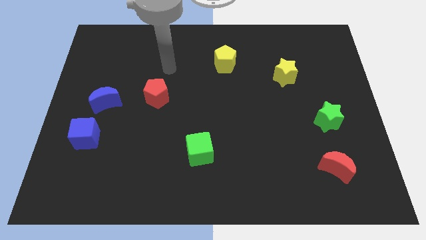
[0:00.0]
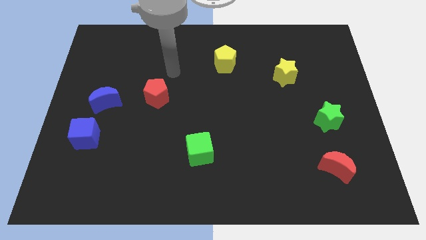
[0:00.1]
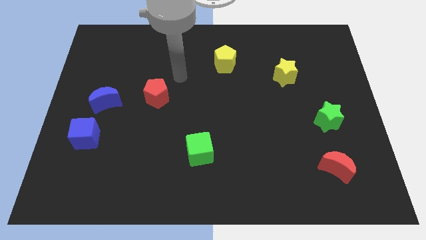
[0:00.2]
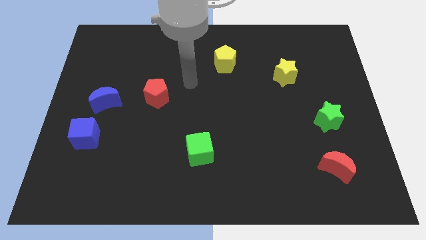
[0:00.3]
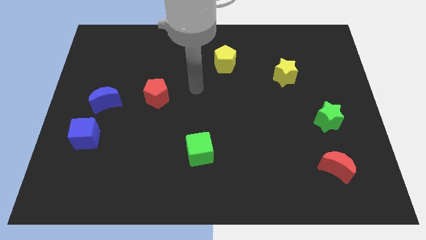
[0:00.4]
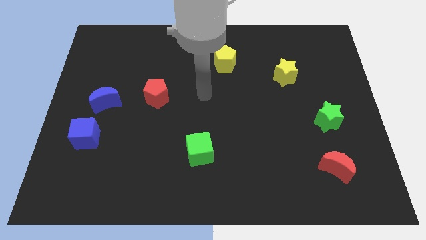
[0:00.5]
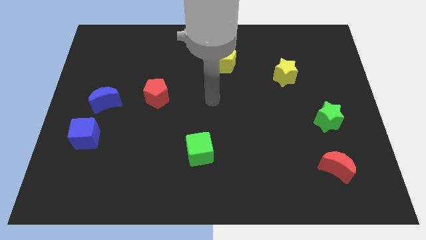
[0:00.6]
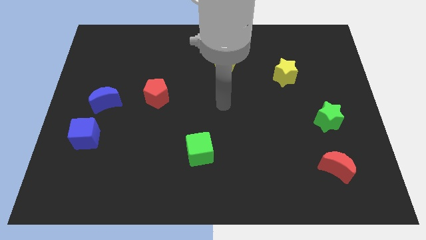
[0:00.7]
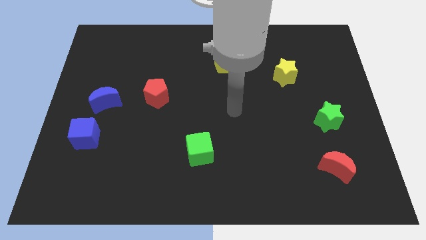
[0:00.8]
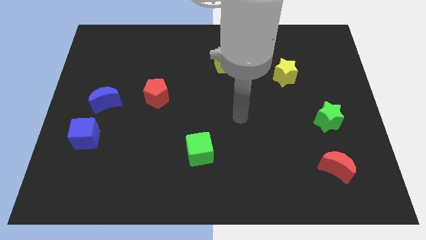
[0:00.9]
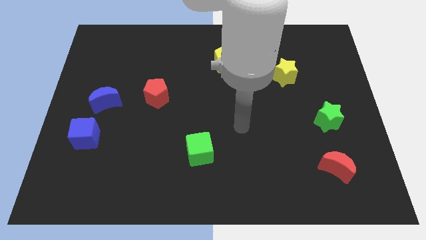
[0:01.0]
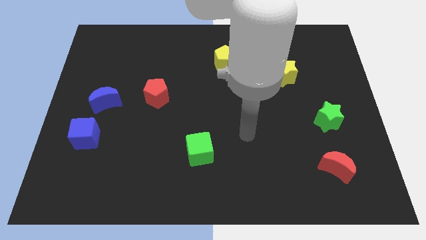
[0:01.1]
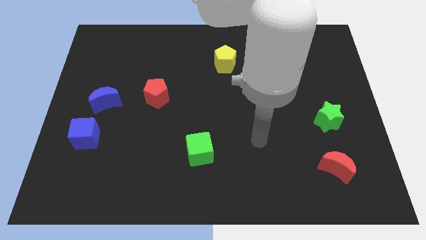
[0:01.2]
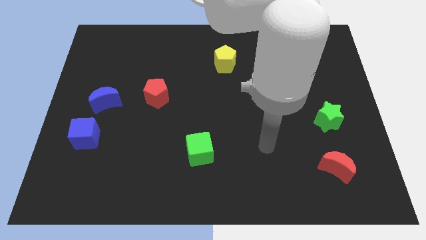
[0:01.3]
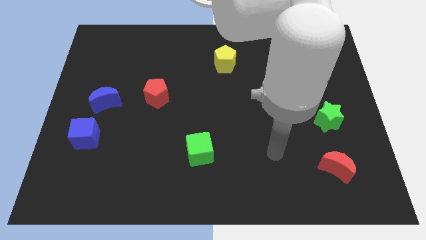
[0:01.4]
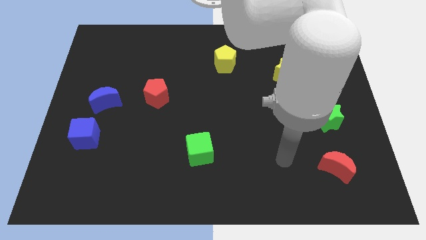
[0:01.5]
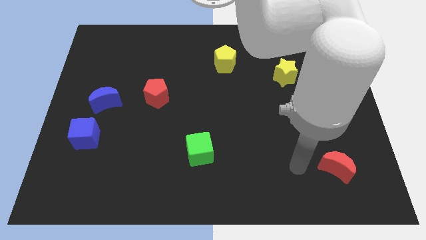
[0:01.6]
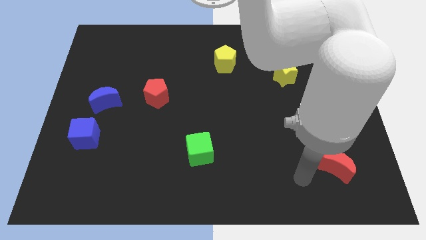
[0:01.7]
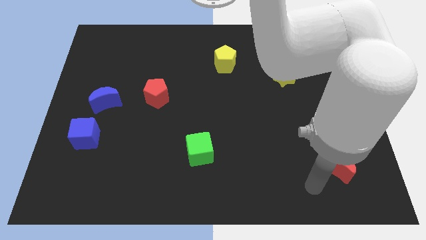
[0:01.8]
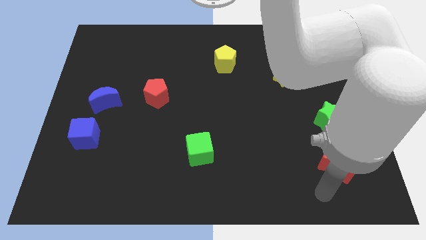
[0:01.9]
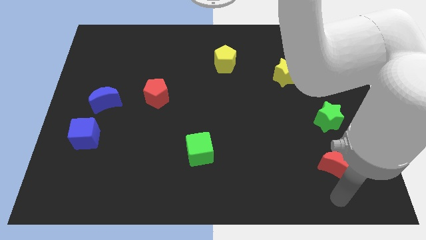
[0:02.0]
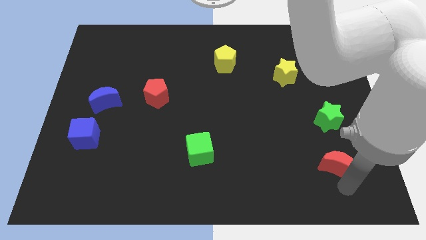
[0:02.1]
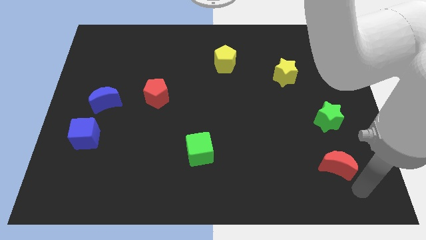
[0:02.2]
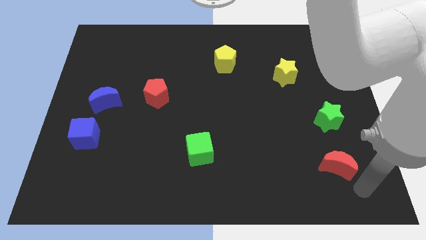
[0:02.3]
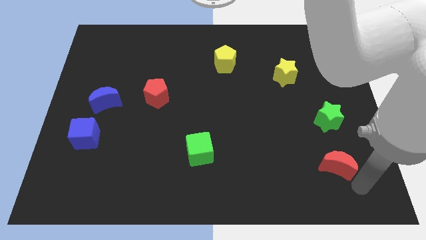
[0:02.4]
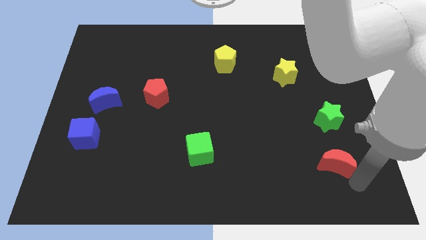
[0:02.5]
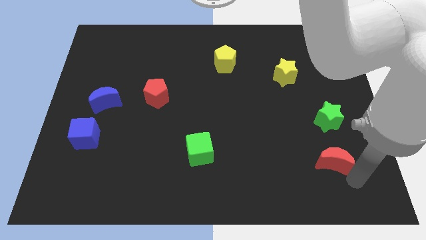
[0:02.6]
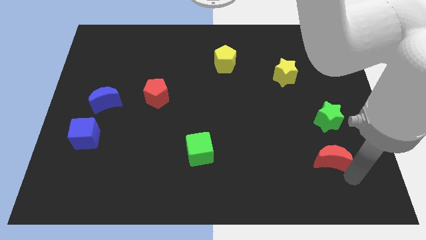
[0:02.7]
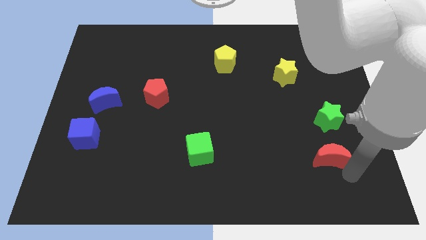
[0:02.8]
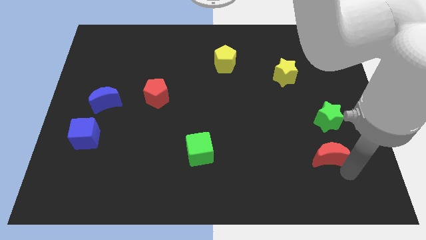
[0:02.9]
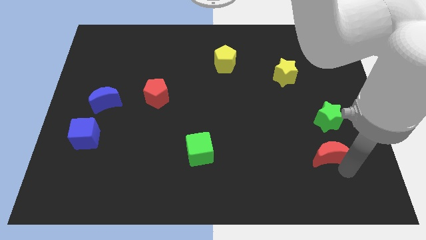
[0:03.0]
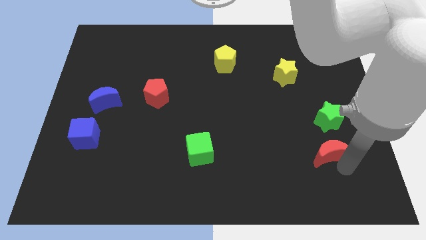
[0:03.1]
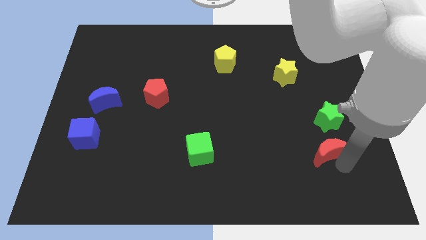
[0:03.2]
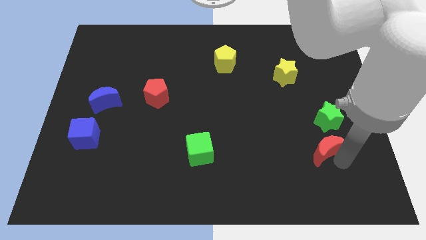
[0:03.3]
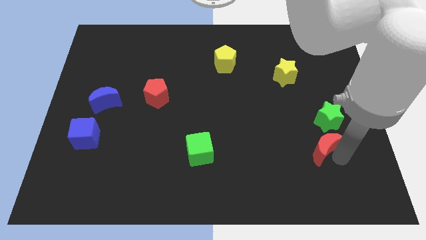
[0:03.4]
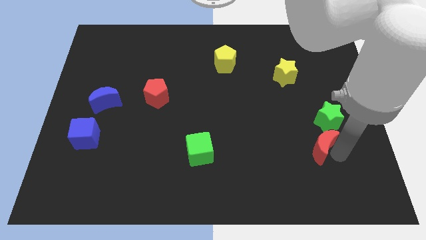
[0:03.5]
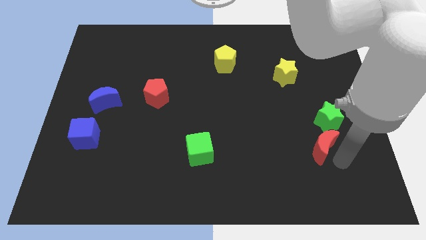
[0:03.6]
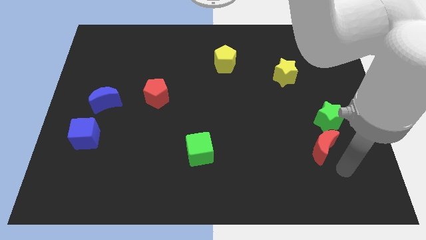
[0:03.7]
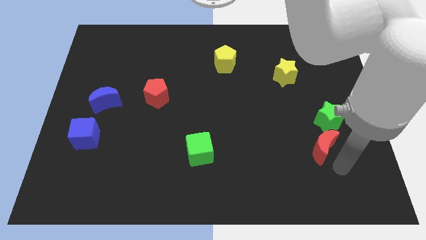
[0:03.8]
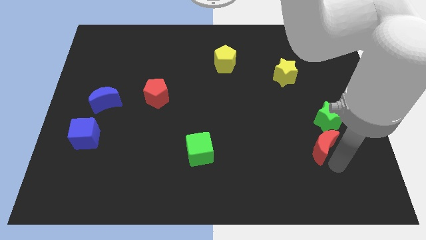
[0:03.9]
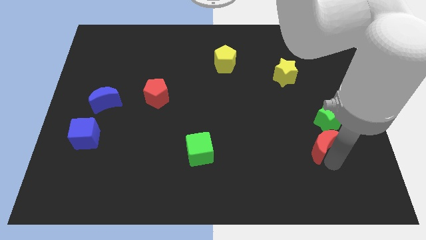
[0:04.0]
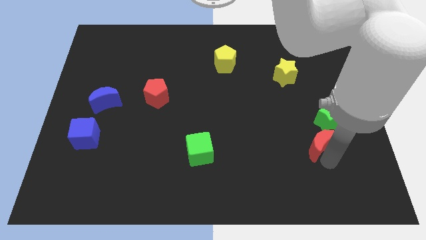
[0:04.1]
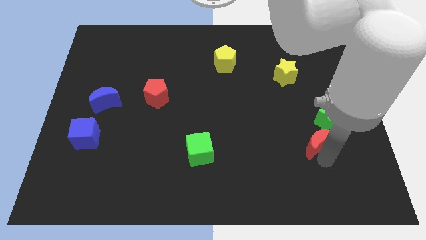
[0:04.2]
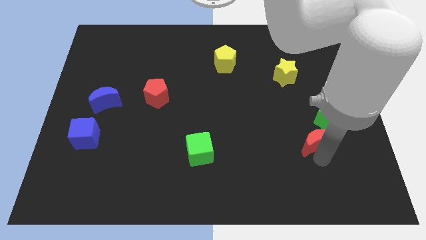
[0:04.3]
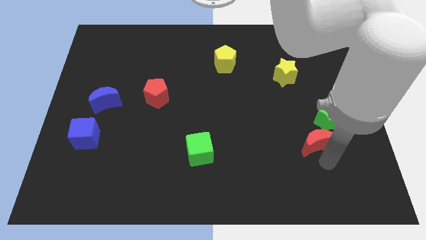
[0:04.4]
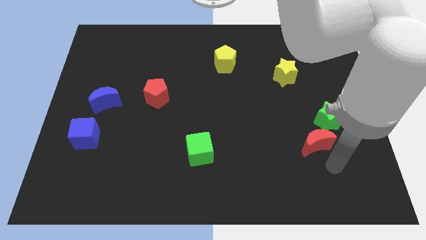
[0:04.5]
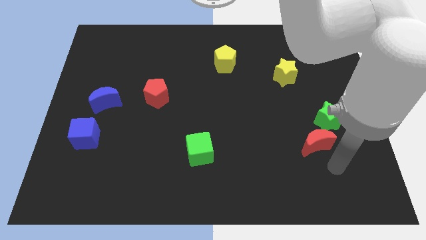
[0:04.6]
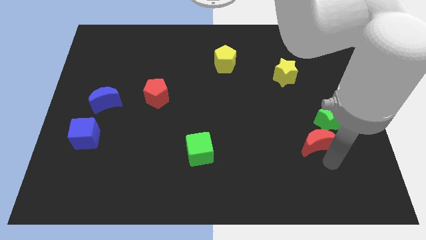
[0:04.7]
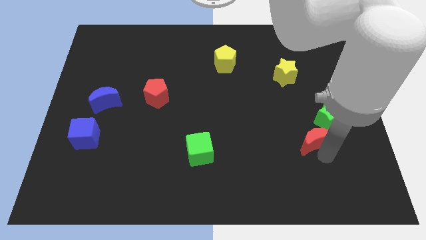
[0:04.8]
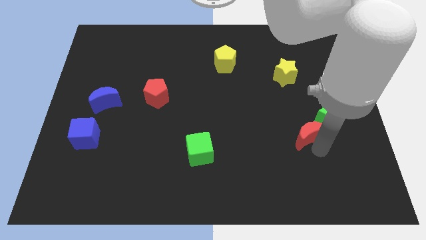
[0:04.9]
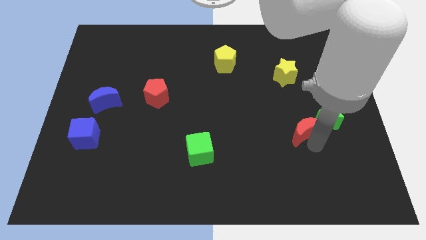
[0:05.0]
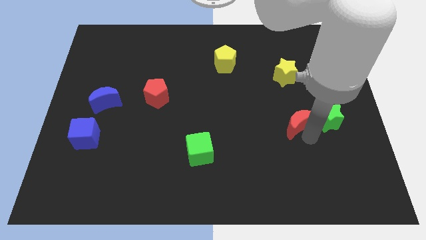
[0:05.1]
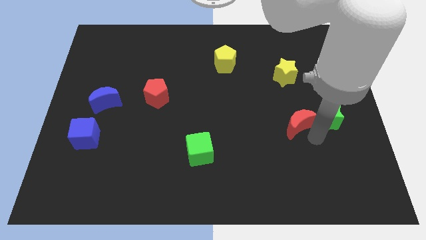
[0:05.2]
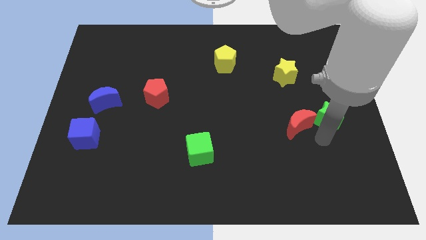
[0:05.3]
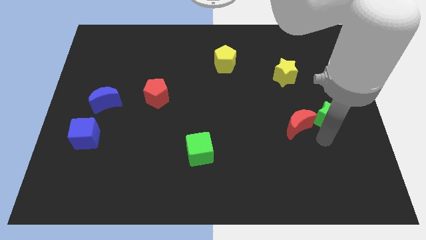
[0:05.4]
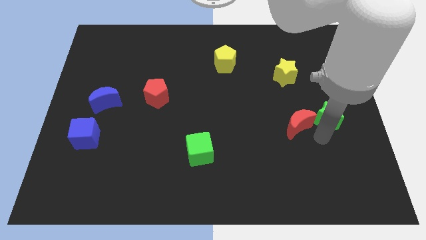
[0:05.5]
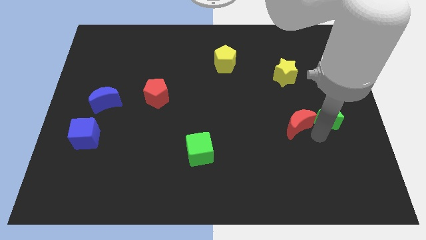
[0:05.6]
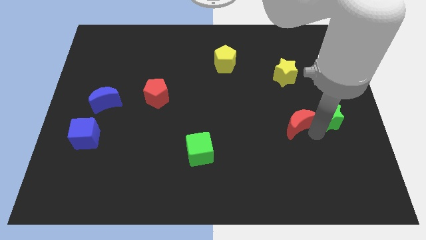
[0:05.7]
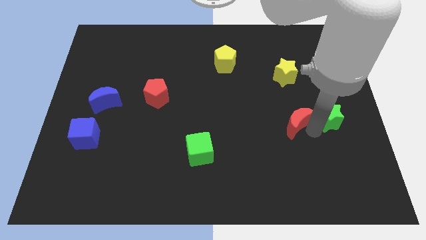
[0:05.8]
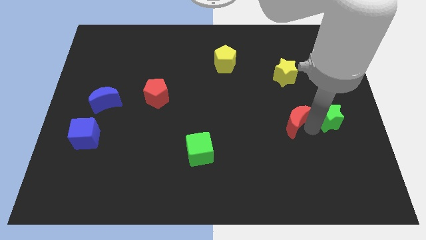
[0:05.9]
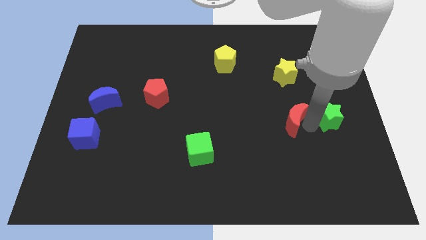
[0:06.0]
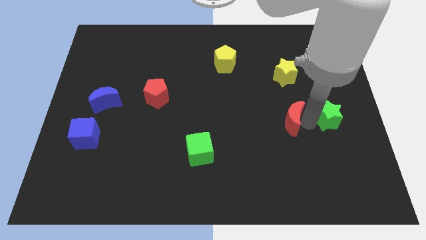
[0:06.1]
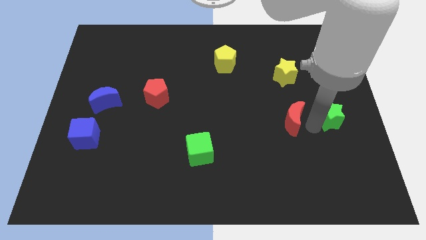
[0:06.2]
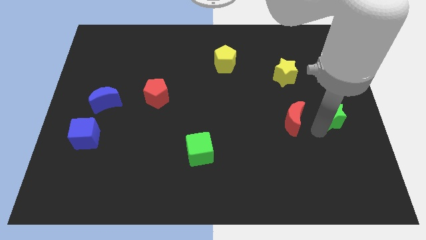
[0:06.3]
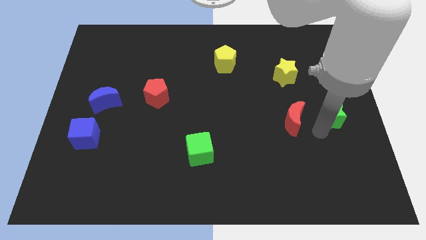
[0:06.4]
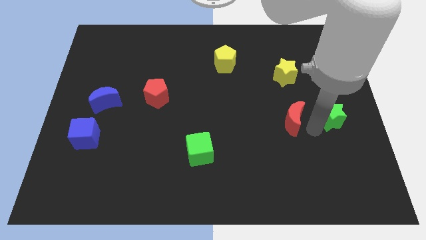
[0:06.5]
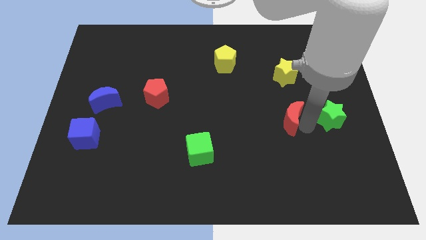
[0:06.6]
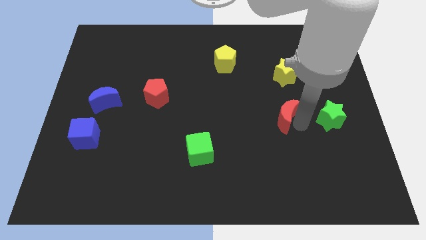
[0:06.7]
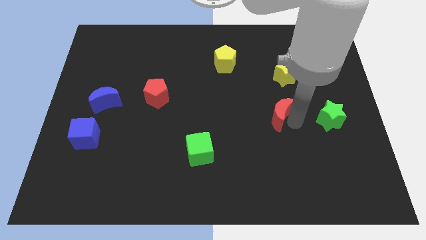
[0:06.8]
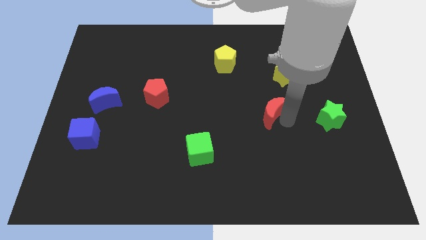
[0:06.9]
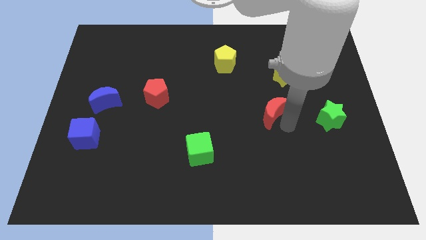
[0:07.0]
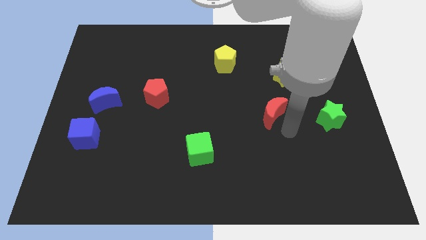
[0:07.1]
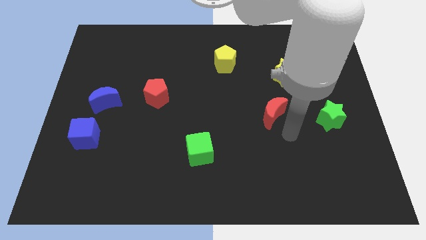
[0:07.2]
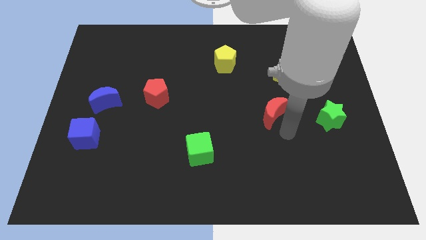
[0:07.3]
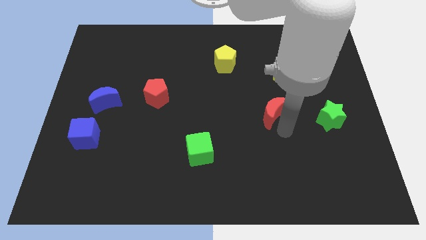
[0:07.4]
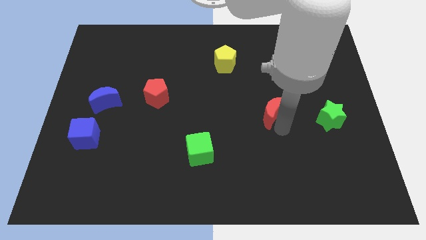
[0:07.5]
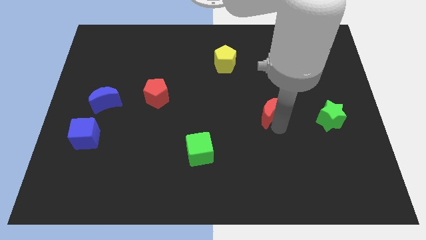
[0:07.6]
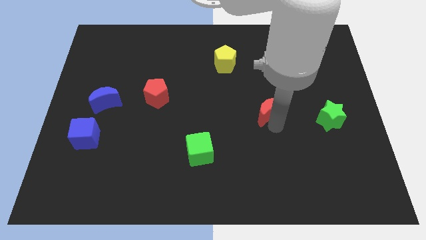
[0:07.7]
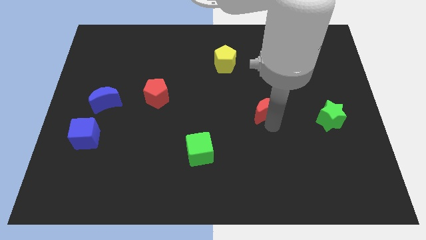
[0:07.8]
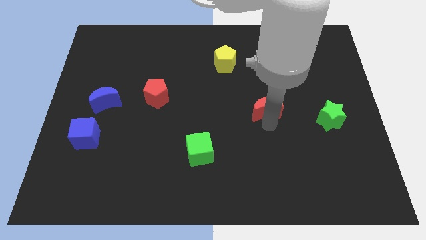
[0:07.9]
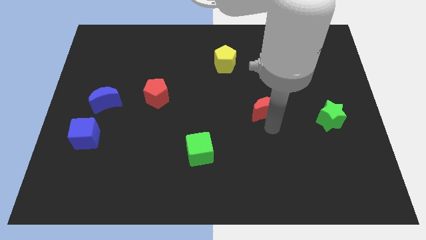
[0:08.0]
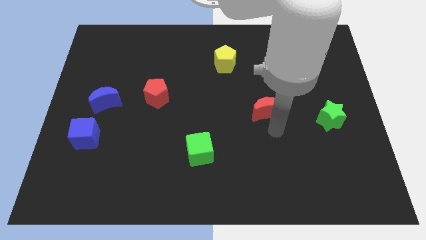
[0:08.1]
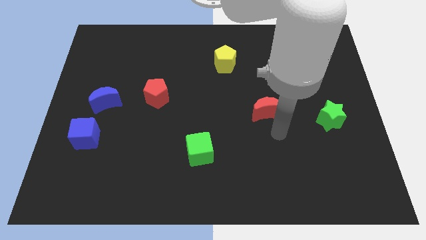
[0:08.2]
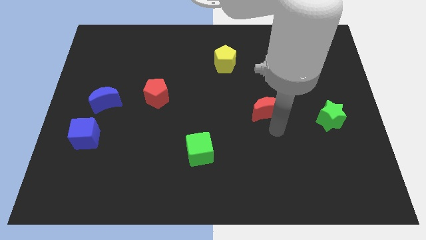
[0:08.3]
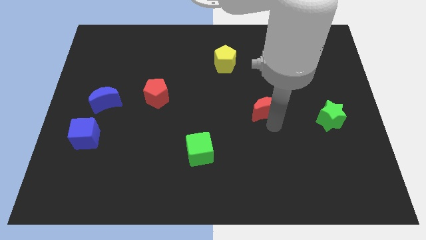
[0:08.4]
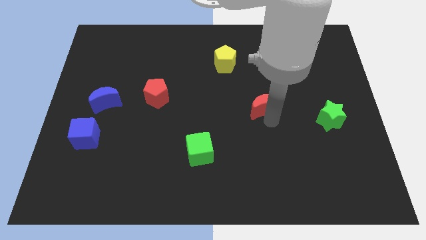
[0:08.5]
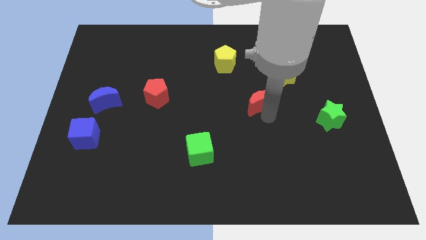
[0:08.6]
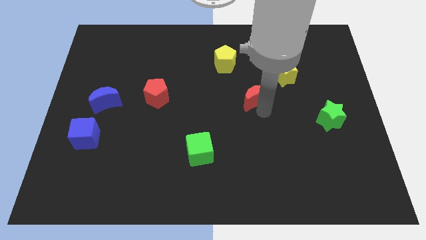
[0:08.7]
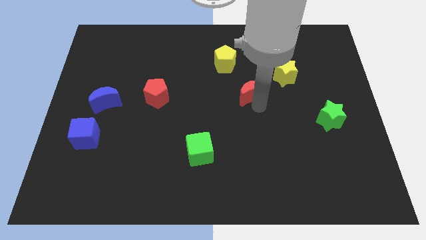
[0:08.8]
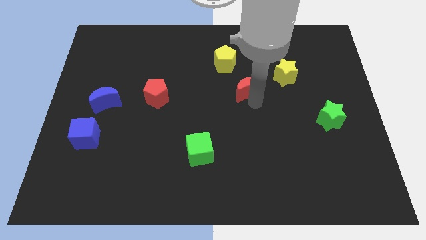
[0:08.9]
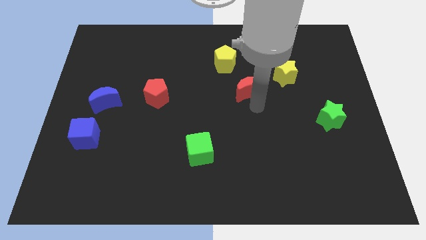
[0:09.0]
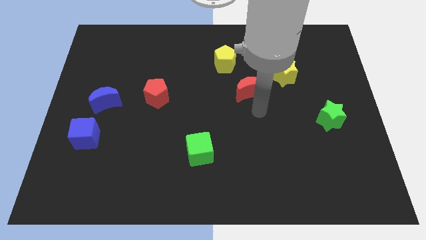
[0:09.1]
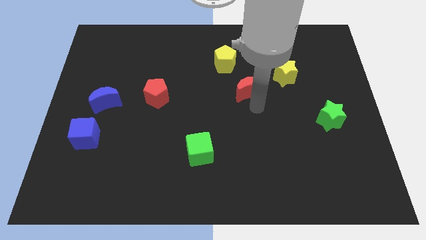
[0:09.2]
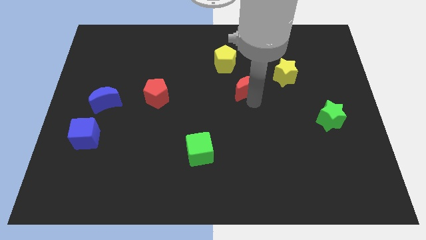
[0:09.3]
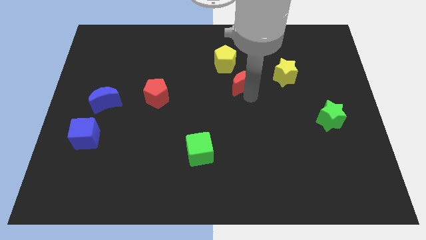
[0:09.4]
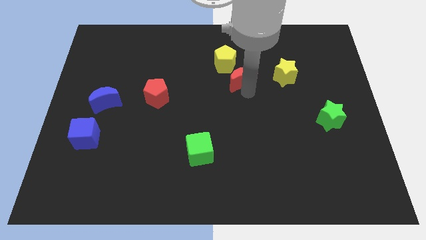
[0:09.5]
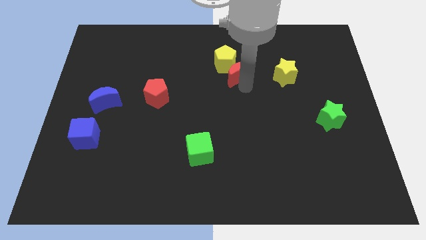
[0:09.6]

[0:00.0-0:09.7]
put the red moon close to the yellow pentagon
